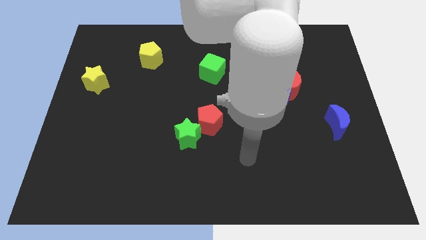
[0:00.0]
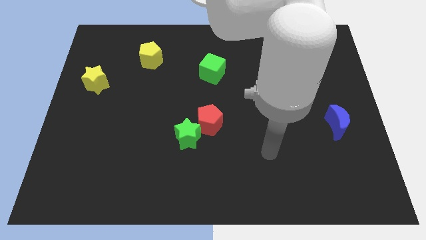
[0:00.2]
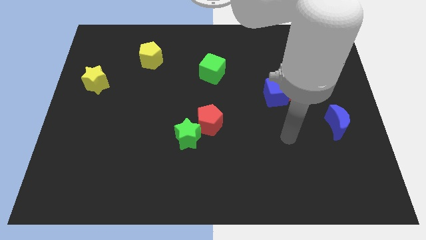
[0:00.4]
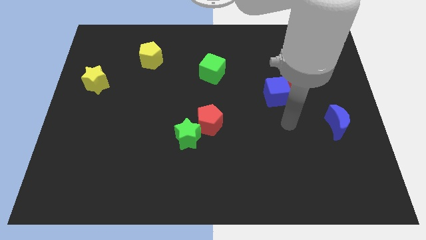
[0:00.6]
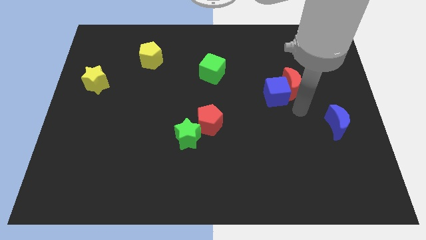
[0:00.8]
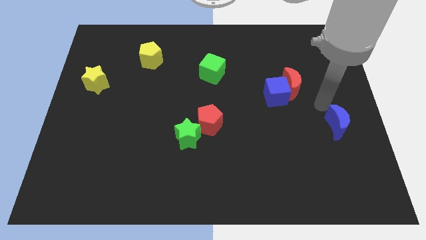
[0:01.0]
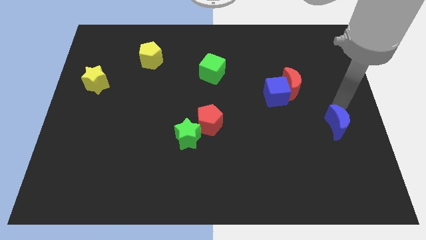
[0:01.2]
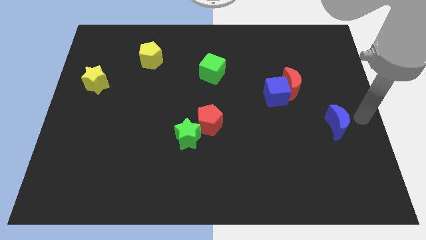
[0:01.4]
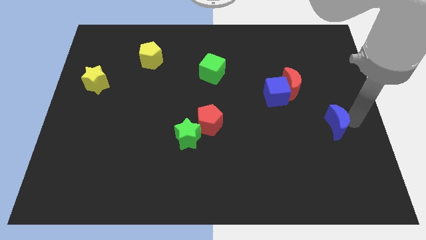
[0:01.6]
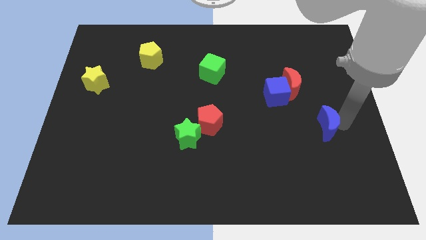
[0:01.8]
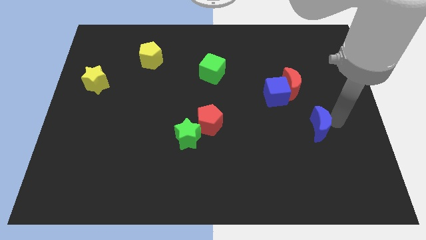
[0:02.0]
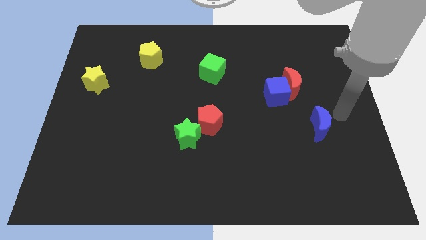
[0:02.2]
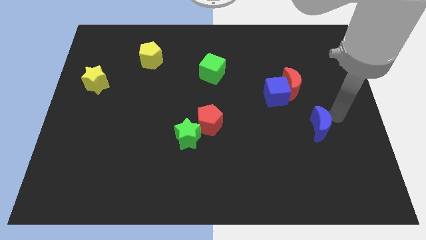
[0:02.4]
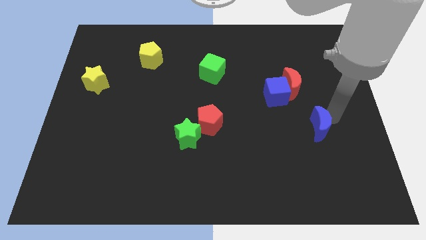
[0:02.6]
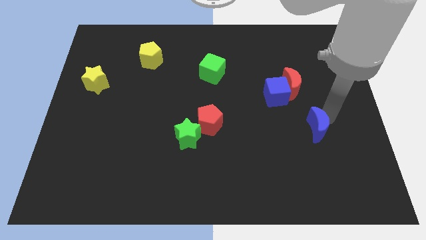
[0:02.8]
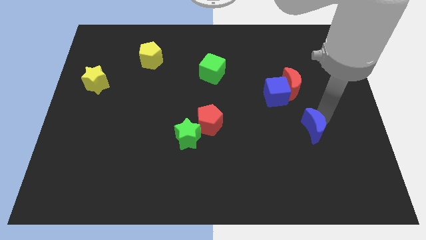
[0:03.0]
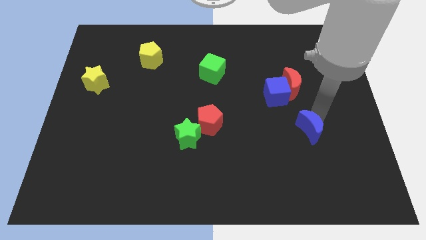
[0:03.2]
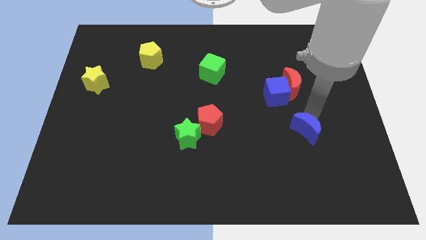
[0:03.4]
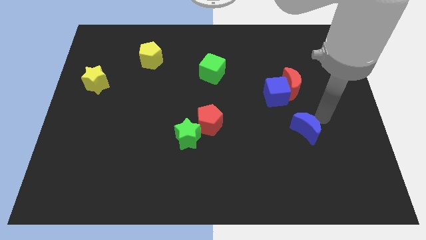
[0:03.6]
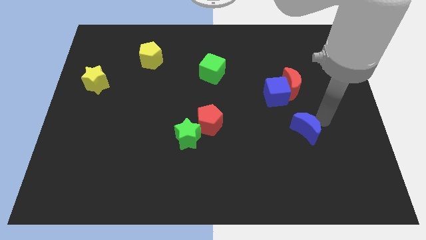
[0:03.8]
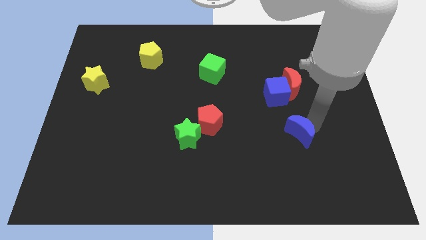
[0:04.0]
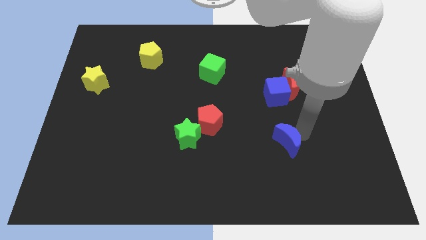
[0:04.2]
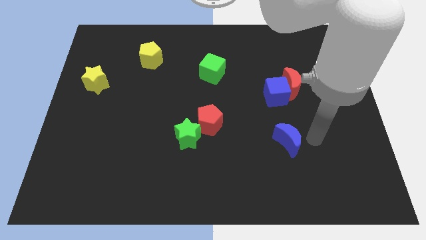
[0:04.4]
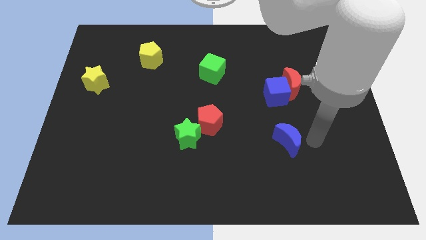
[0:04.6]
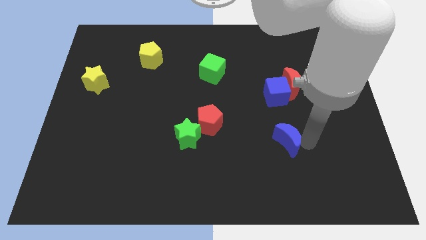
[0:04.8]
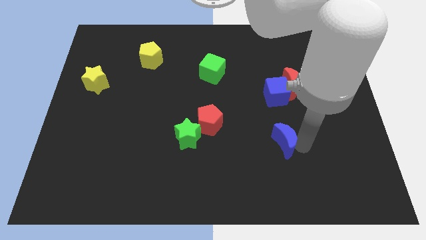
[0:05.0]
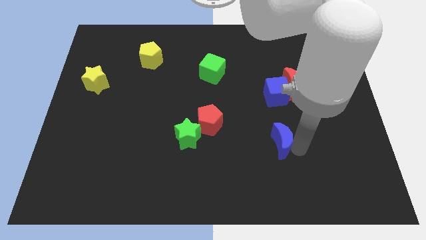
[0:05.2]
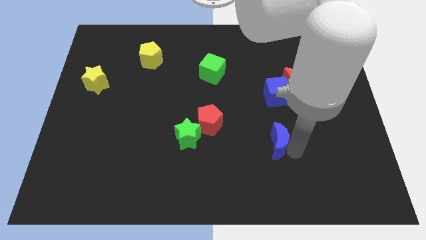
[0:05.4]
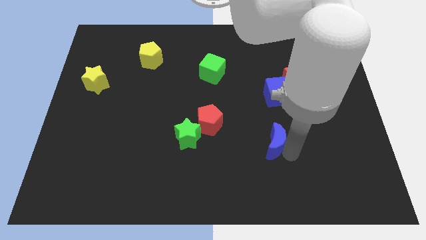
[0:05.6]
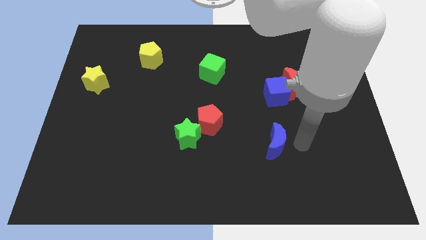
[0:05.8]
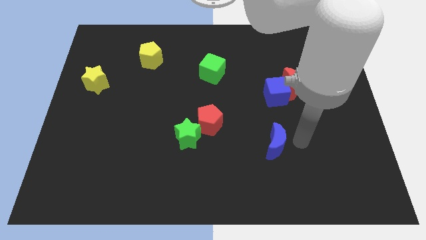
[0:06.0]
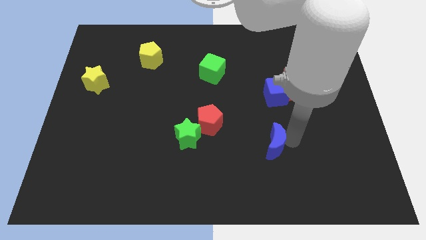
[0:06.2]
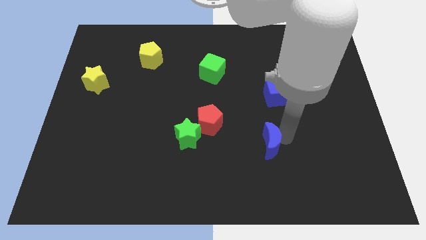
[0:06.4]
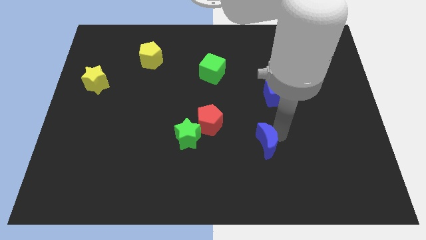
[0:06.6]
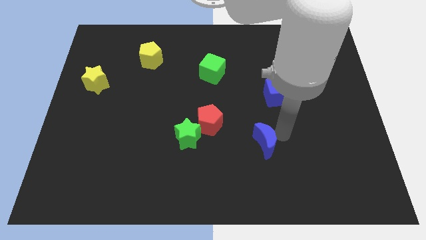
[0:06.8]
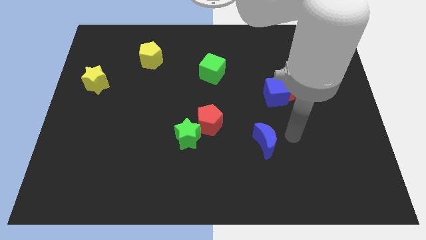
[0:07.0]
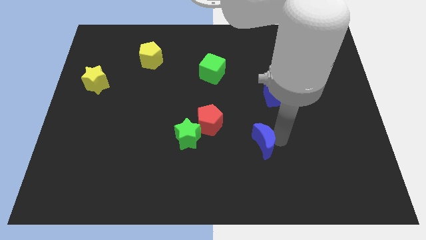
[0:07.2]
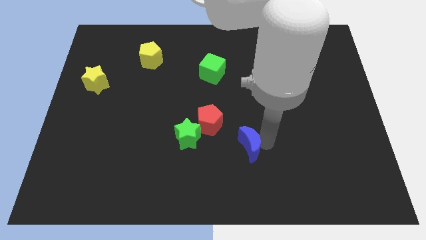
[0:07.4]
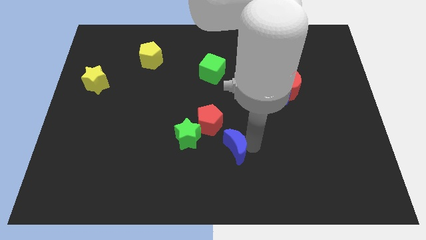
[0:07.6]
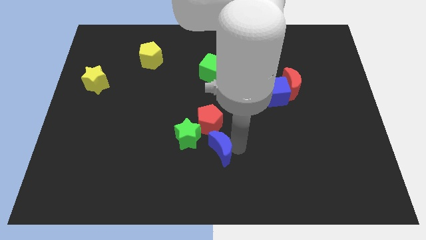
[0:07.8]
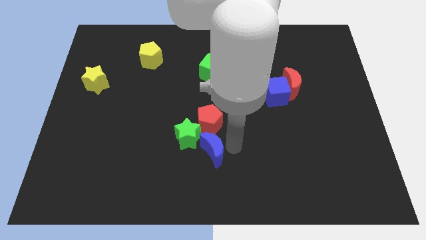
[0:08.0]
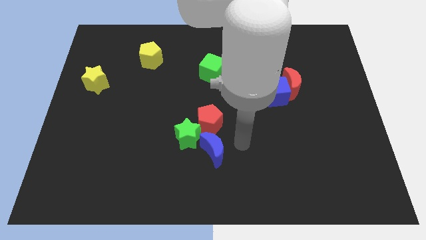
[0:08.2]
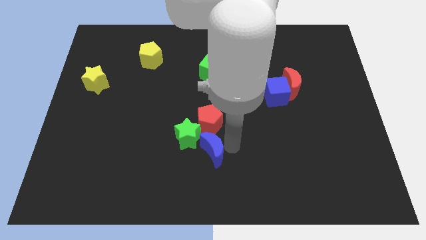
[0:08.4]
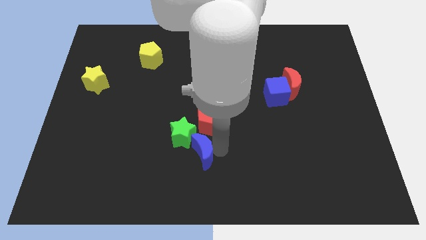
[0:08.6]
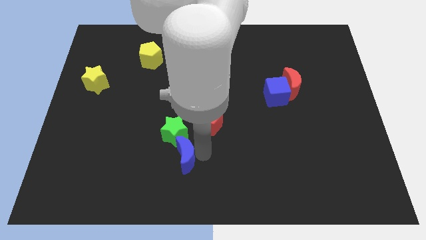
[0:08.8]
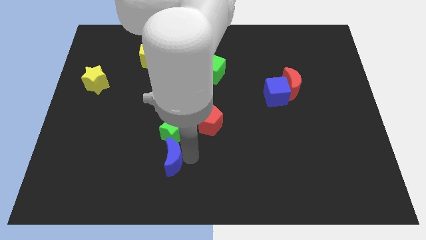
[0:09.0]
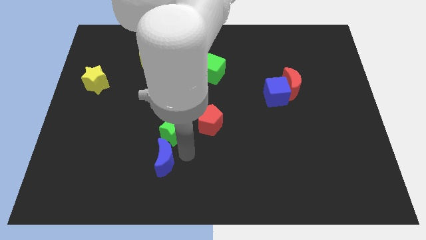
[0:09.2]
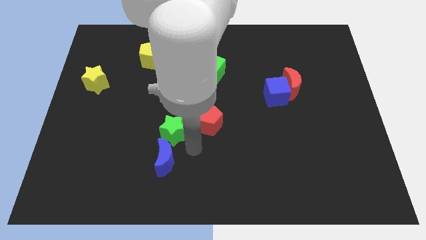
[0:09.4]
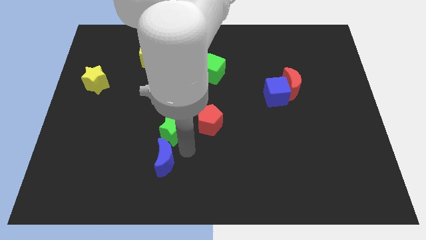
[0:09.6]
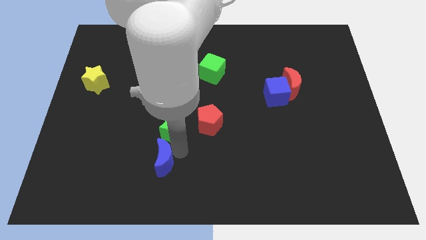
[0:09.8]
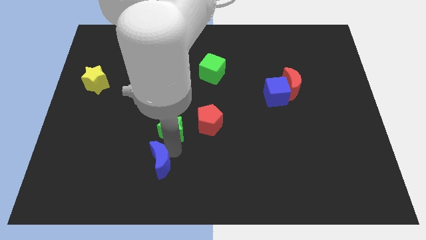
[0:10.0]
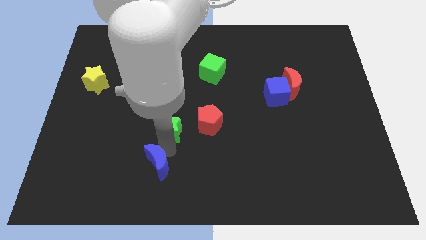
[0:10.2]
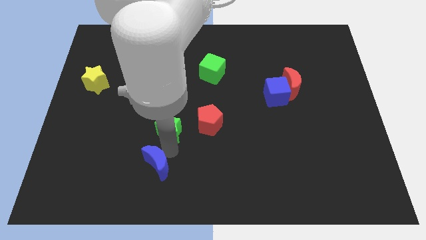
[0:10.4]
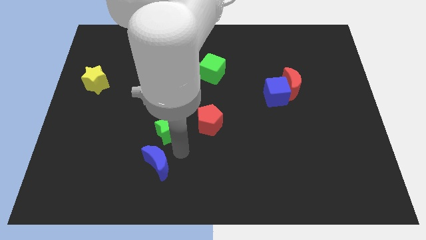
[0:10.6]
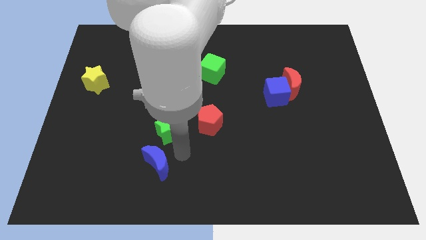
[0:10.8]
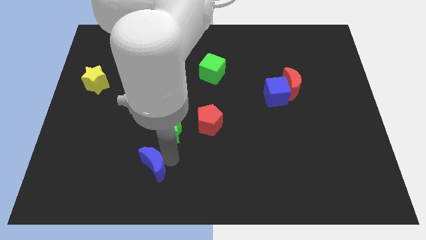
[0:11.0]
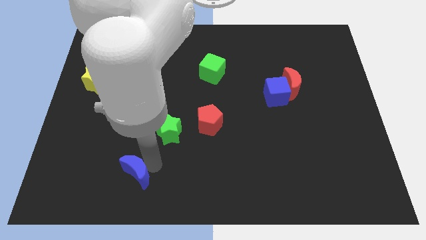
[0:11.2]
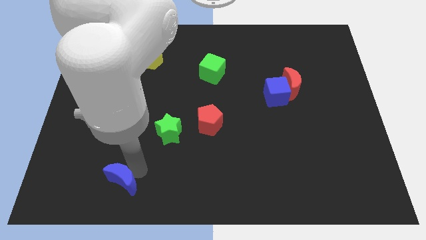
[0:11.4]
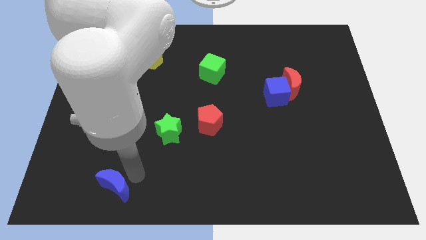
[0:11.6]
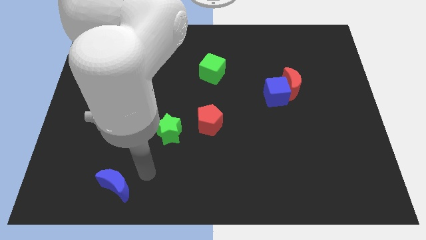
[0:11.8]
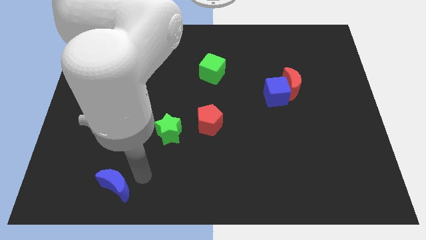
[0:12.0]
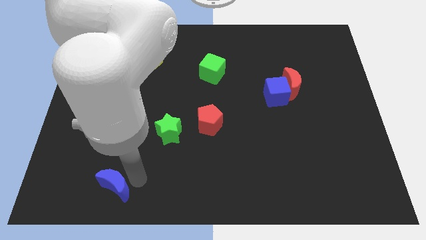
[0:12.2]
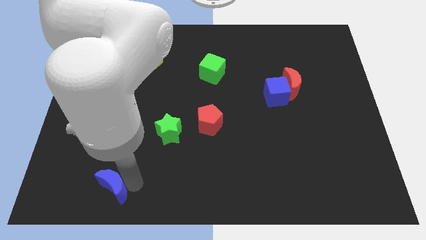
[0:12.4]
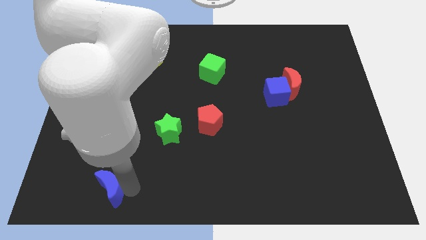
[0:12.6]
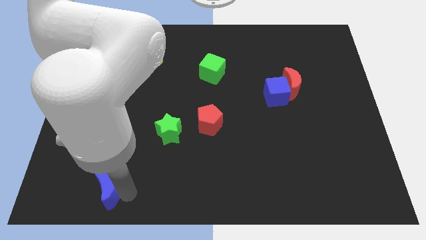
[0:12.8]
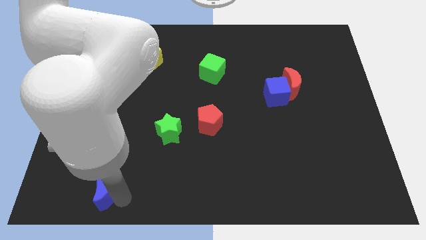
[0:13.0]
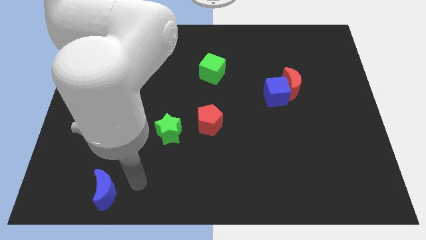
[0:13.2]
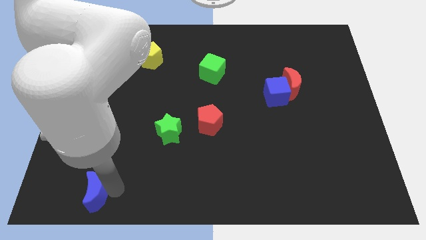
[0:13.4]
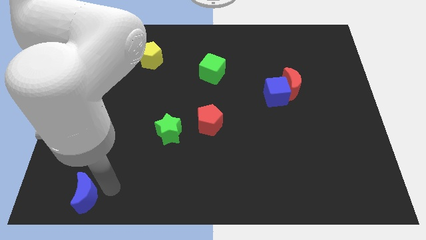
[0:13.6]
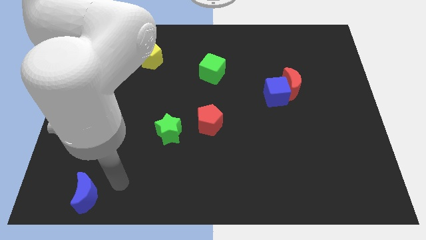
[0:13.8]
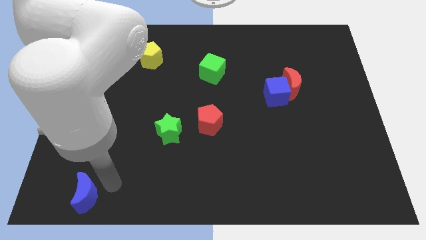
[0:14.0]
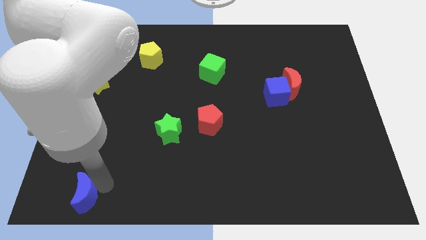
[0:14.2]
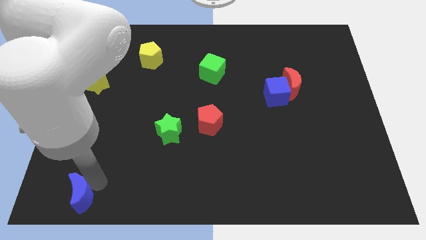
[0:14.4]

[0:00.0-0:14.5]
move the blue moon to the bottom left of the board
